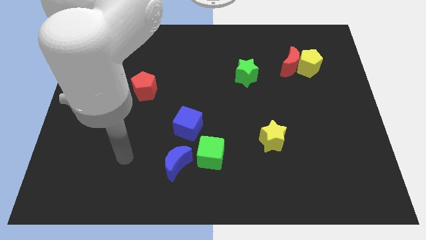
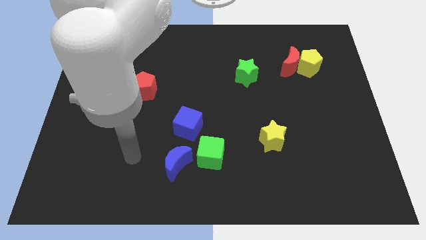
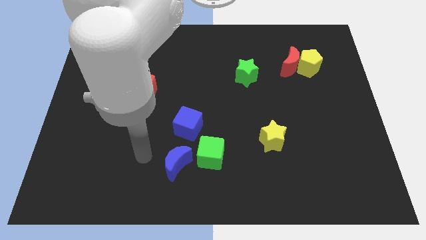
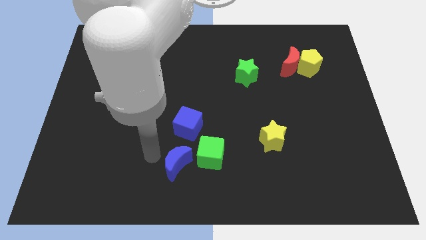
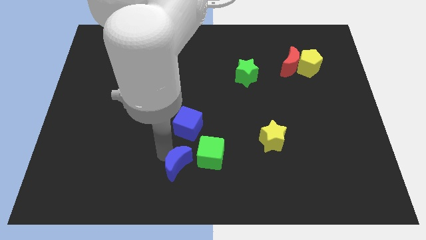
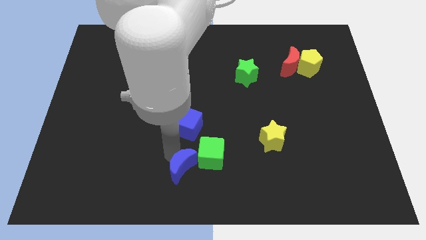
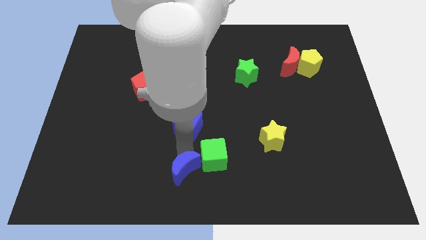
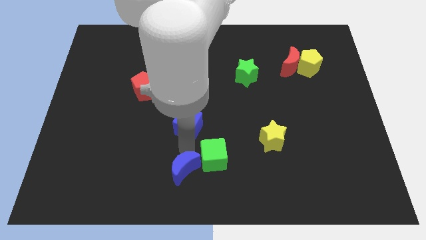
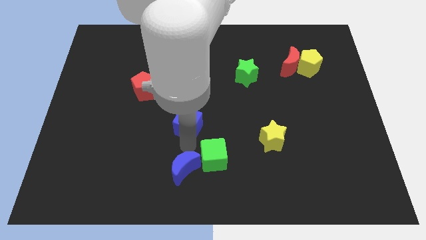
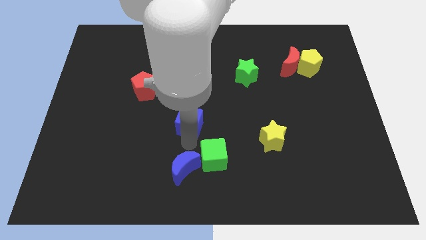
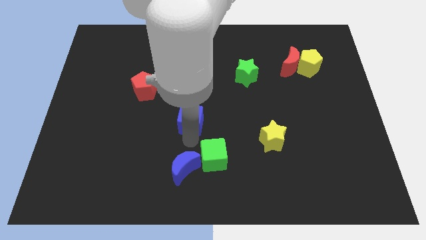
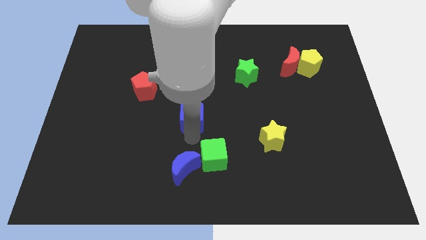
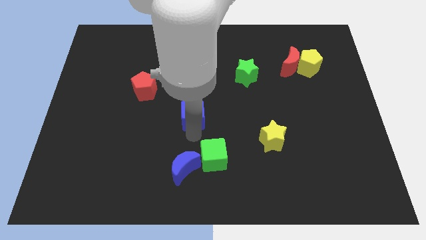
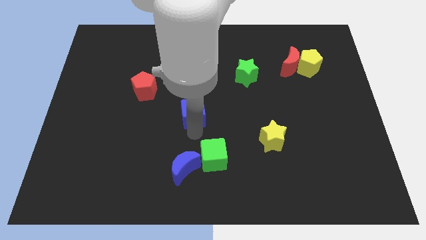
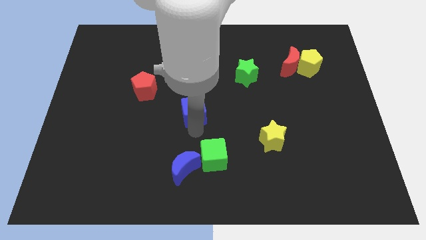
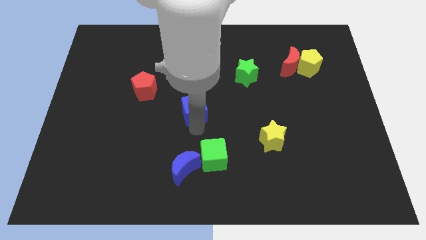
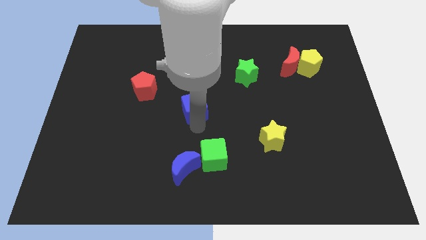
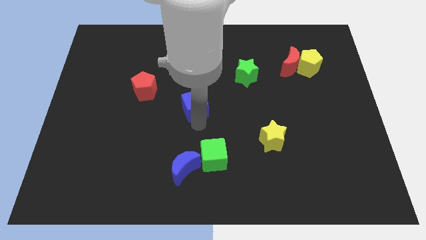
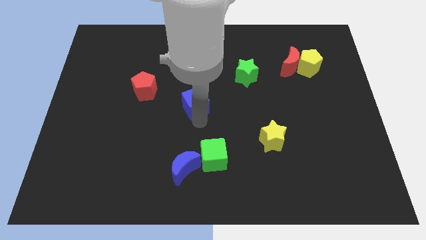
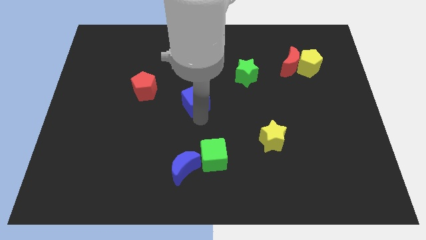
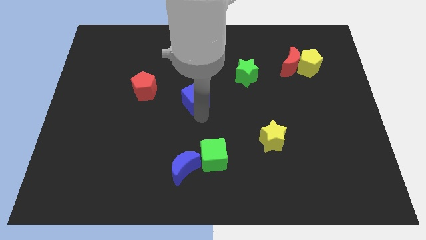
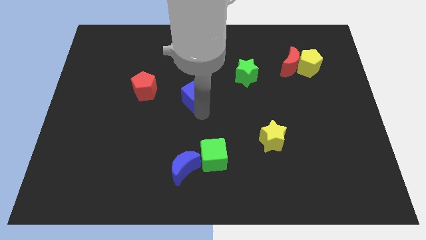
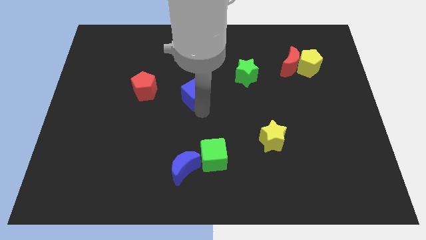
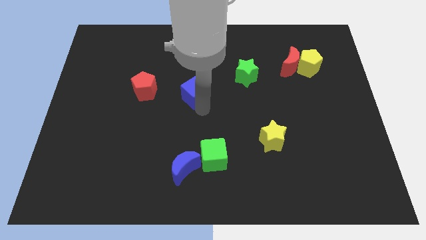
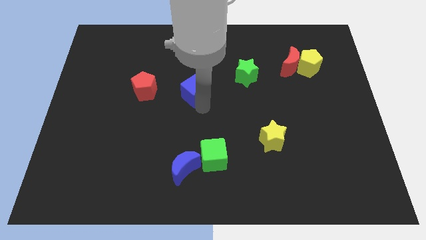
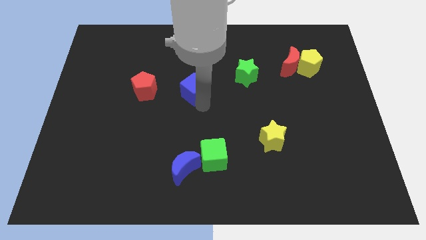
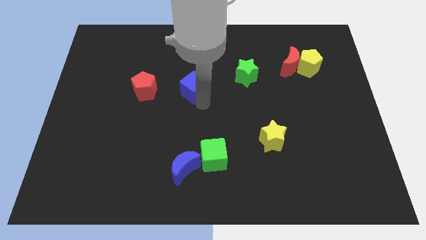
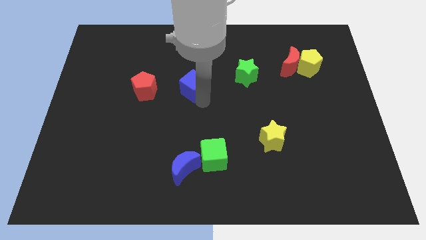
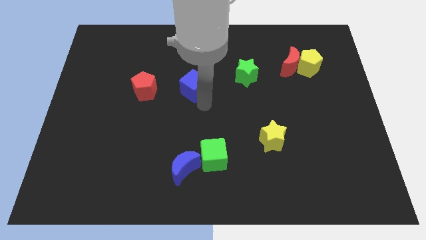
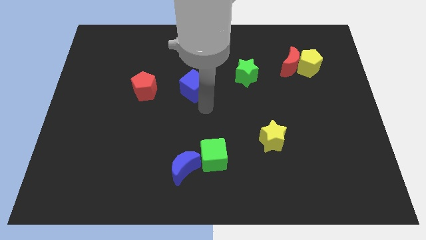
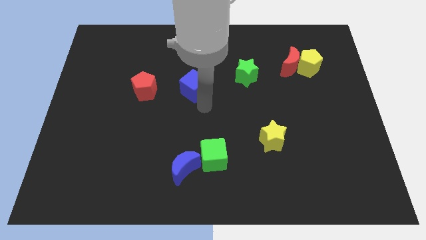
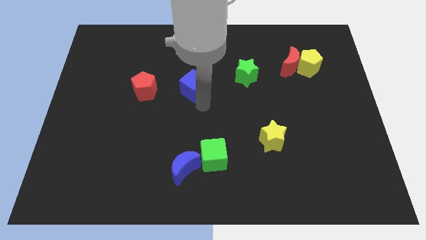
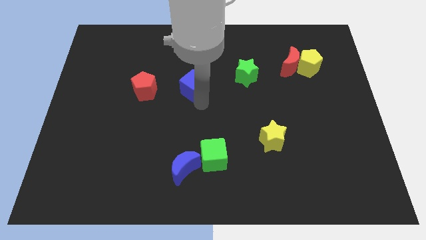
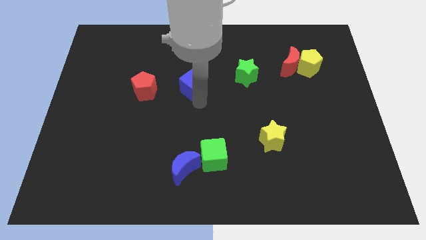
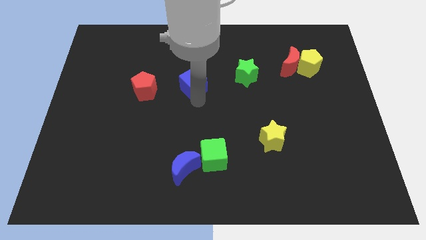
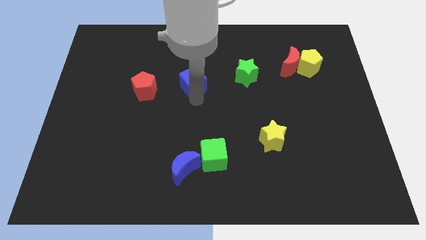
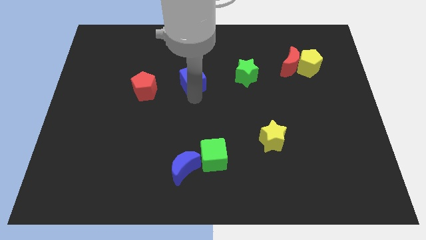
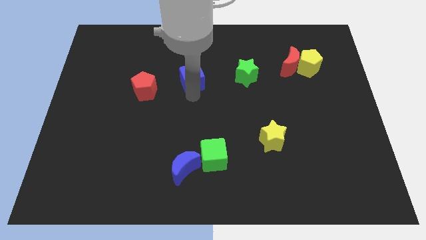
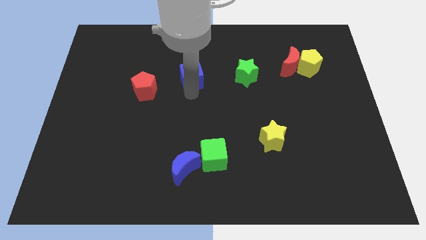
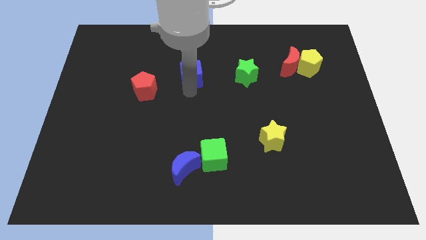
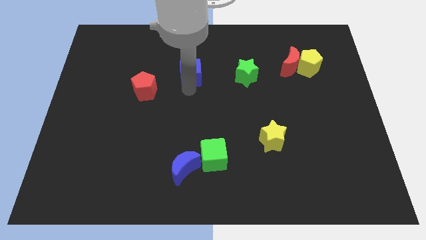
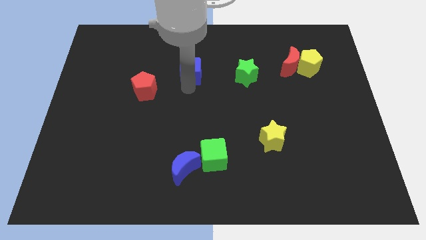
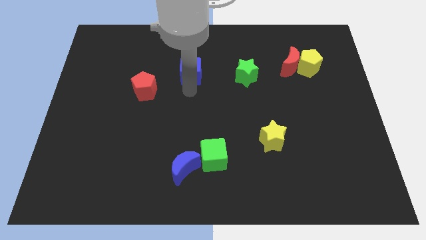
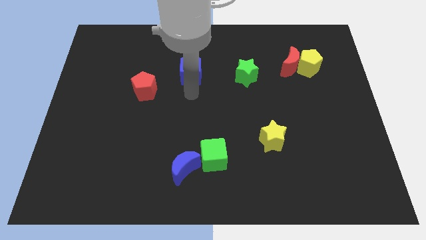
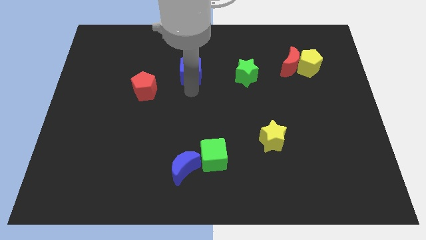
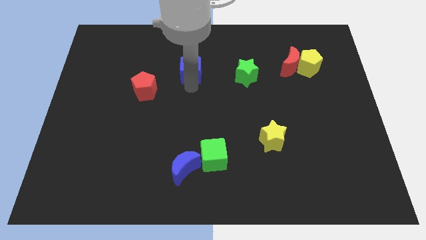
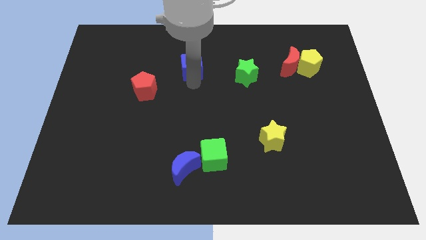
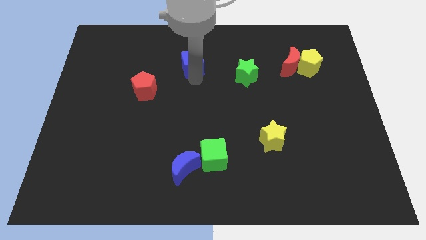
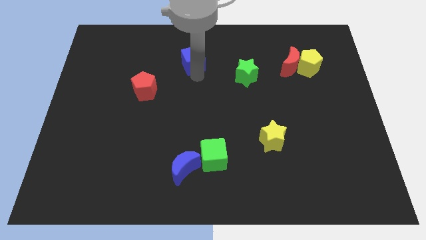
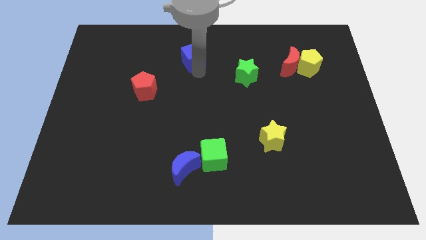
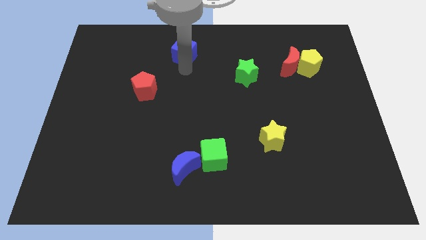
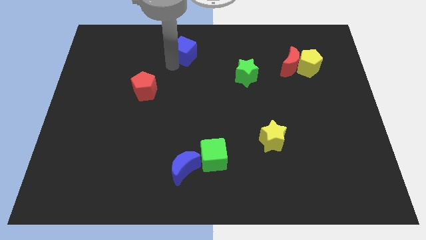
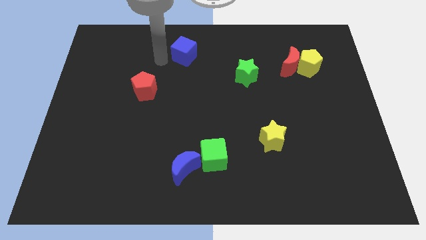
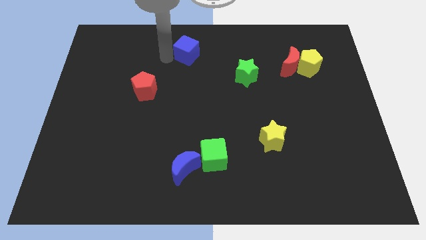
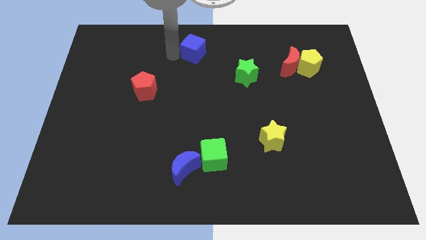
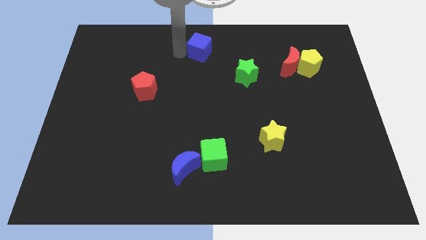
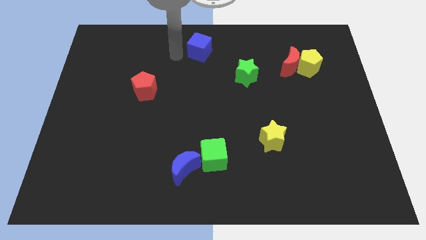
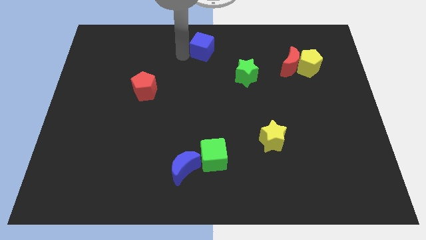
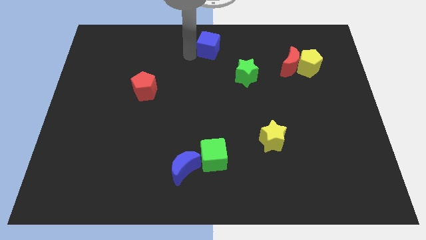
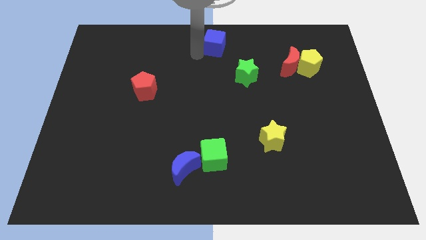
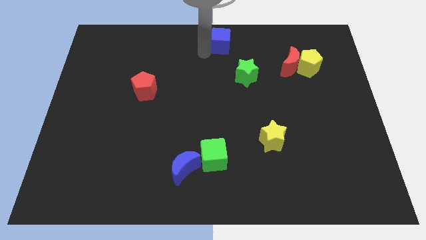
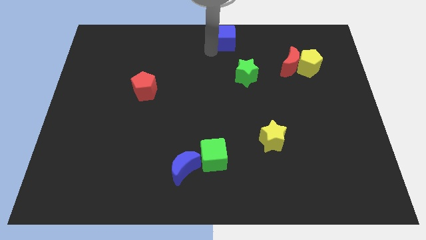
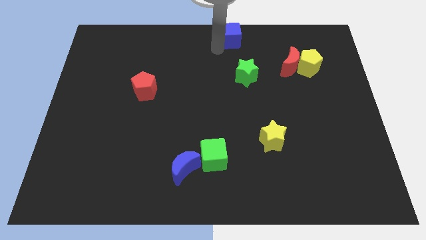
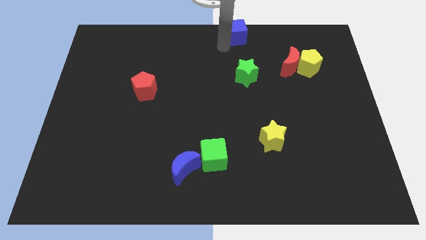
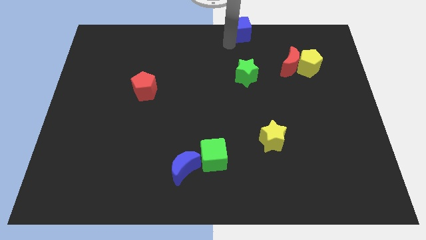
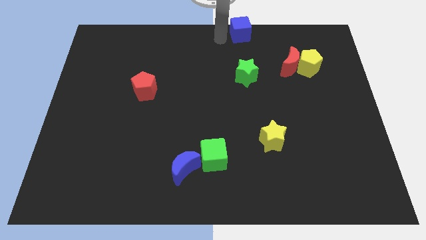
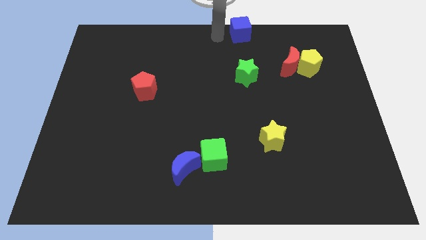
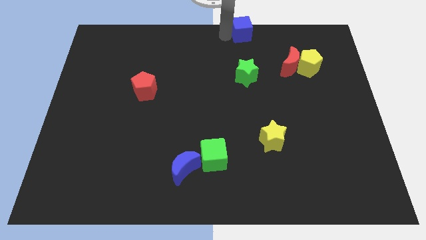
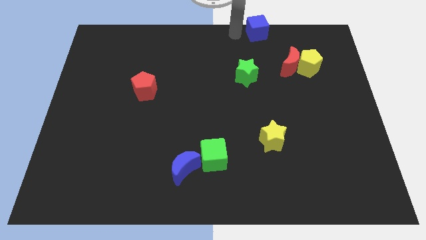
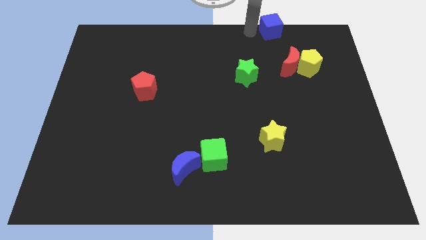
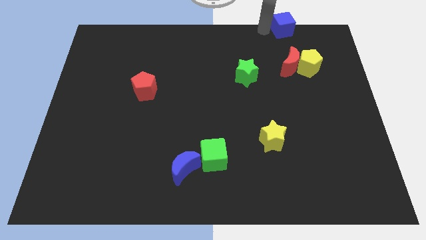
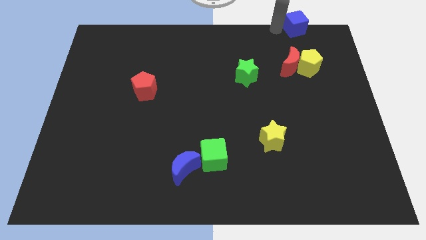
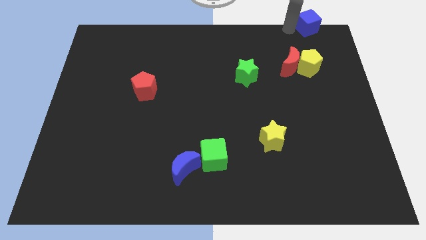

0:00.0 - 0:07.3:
slide the blue cube to the top right corner
